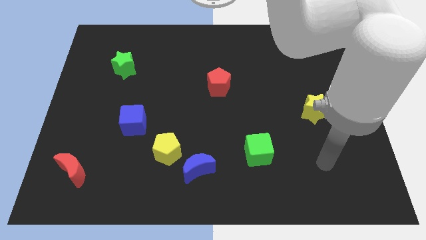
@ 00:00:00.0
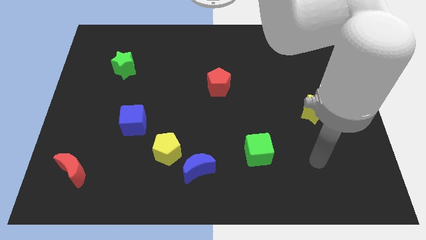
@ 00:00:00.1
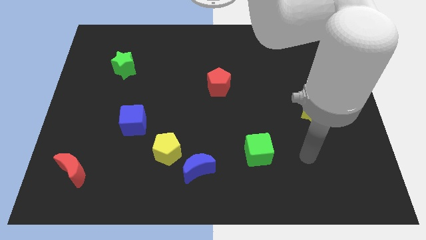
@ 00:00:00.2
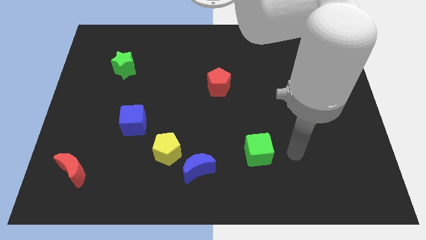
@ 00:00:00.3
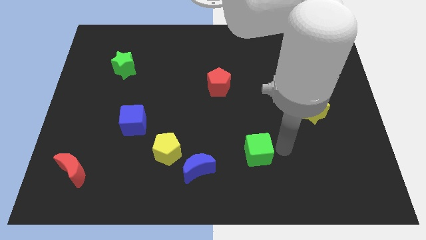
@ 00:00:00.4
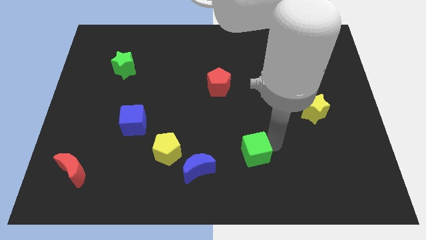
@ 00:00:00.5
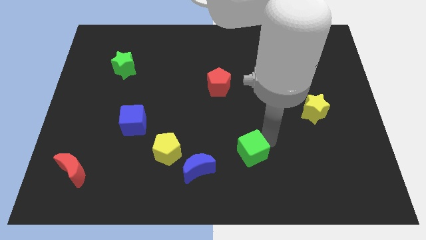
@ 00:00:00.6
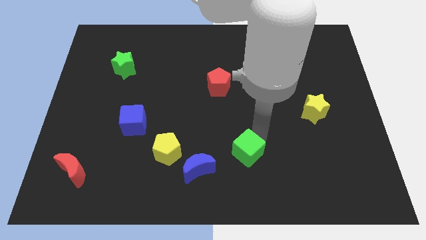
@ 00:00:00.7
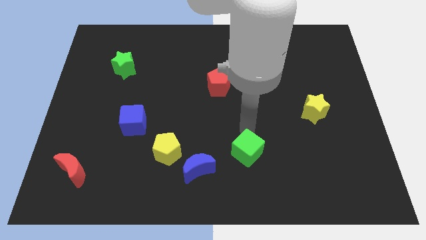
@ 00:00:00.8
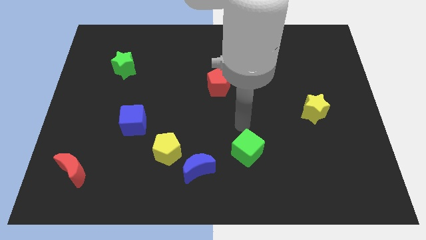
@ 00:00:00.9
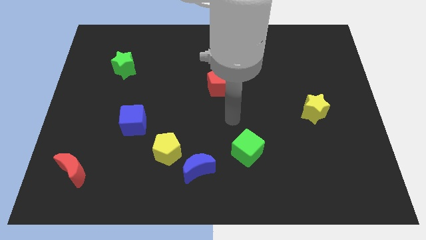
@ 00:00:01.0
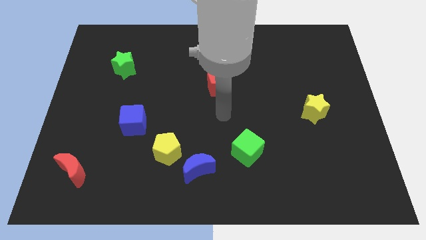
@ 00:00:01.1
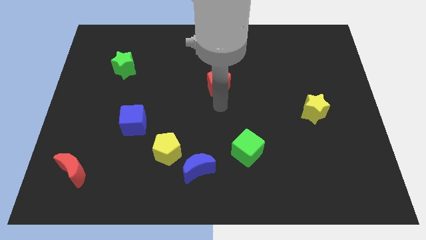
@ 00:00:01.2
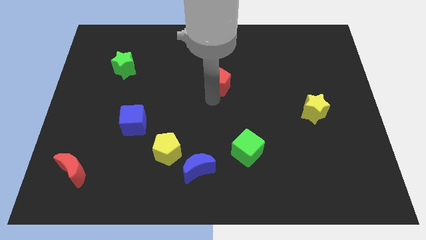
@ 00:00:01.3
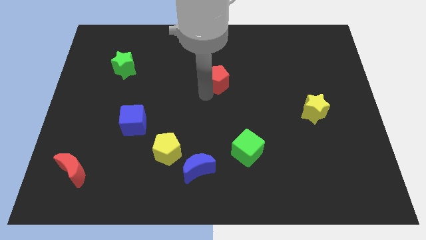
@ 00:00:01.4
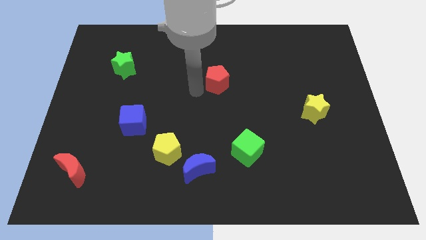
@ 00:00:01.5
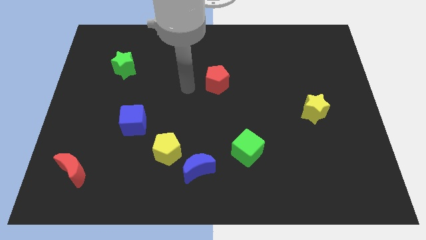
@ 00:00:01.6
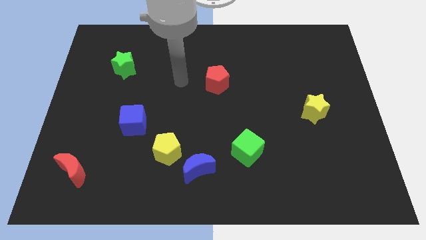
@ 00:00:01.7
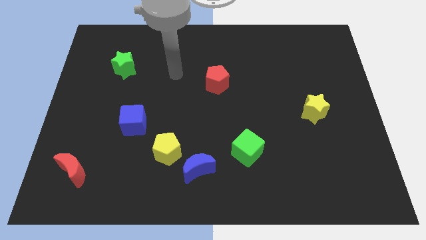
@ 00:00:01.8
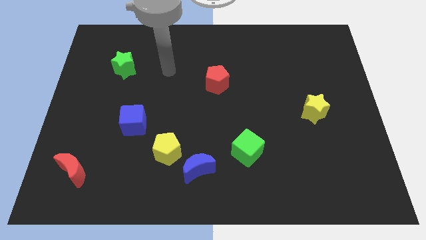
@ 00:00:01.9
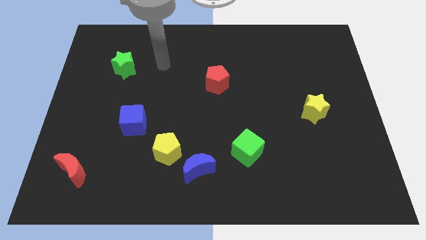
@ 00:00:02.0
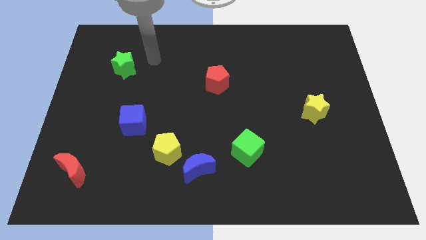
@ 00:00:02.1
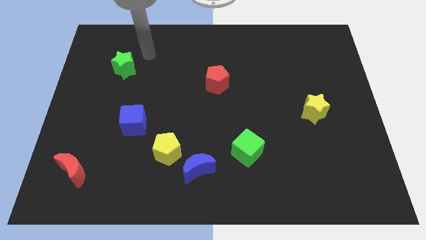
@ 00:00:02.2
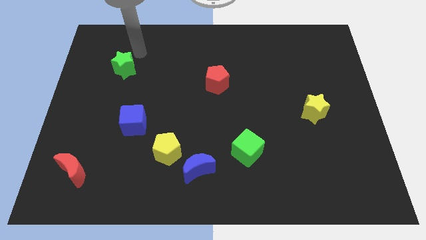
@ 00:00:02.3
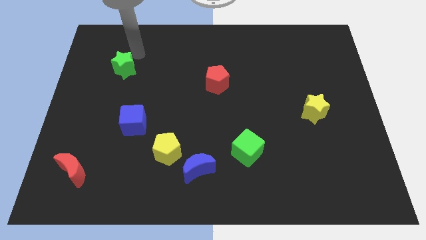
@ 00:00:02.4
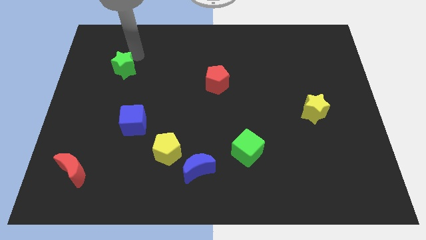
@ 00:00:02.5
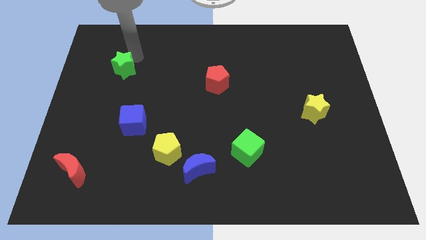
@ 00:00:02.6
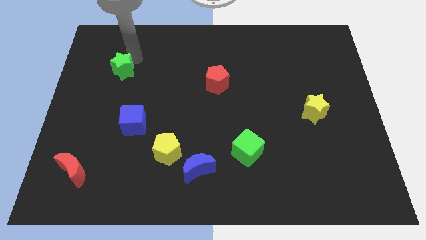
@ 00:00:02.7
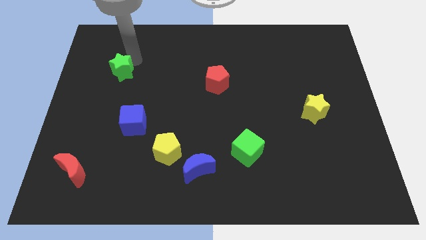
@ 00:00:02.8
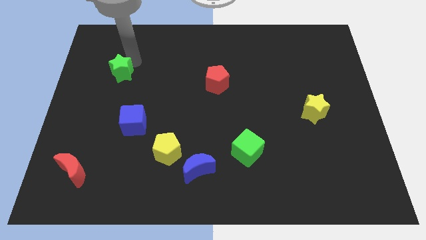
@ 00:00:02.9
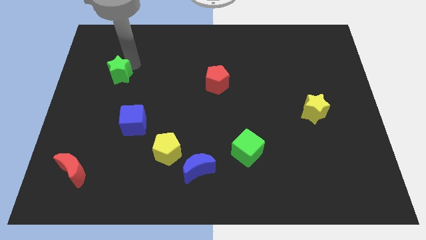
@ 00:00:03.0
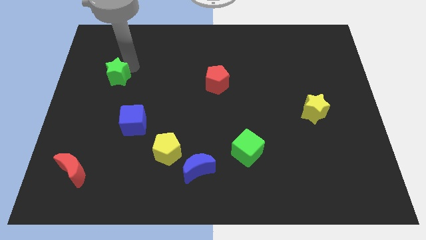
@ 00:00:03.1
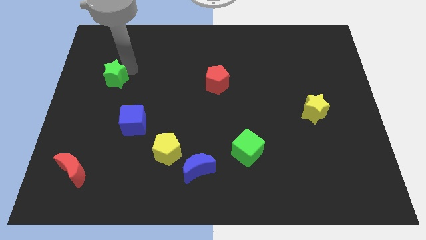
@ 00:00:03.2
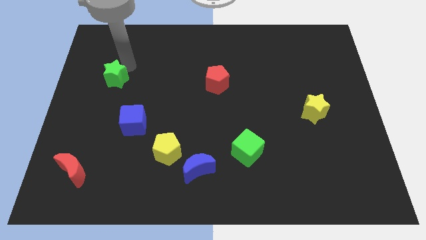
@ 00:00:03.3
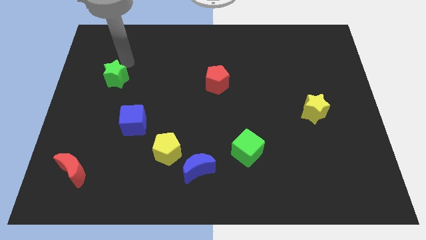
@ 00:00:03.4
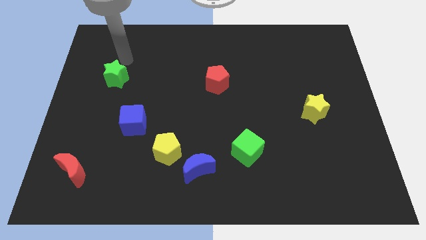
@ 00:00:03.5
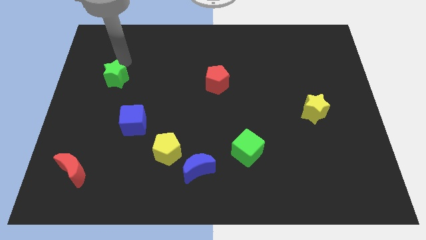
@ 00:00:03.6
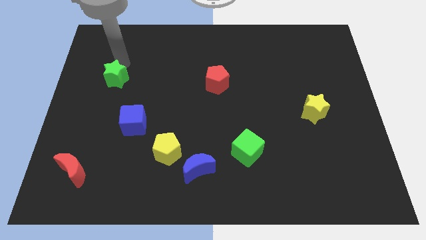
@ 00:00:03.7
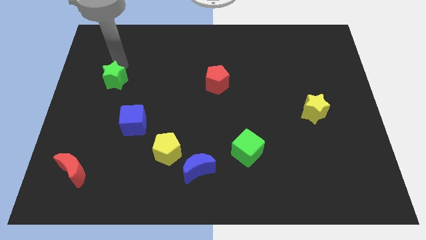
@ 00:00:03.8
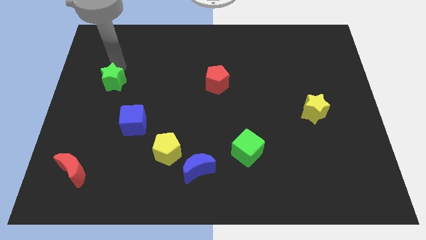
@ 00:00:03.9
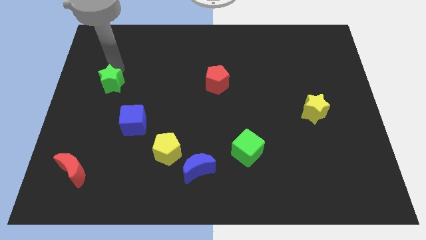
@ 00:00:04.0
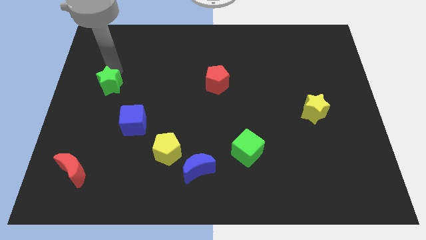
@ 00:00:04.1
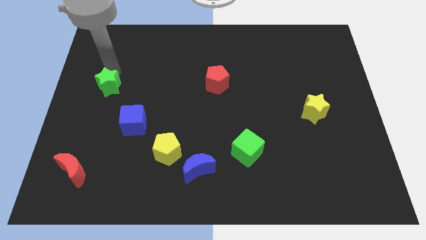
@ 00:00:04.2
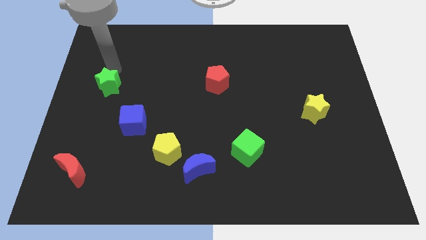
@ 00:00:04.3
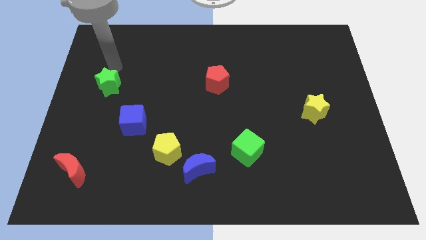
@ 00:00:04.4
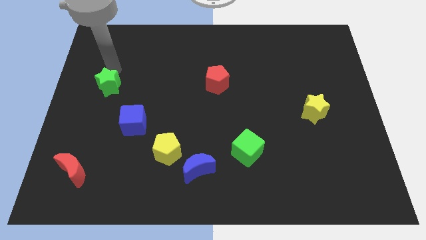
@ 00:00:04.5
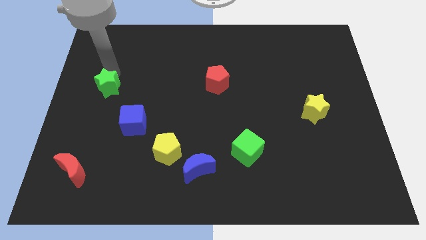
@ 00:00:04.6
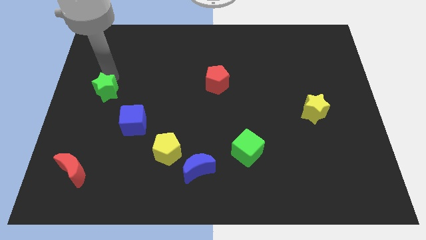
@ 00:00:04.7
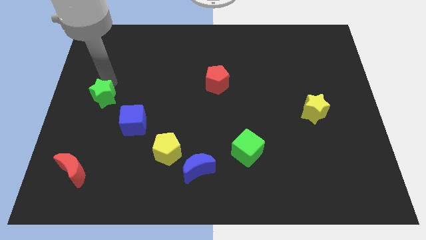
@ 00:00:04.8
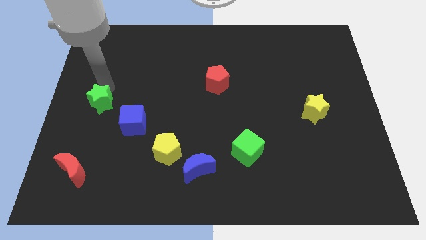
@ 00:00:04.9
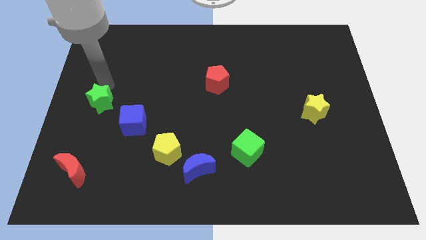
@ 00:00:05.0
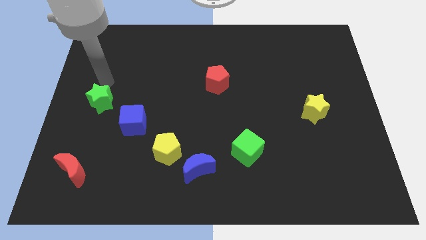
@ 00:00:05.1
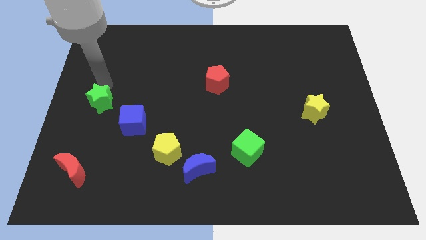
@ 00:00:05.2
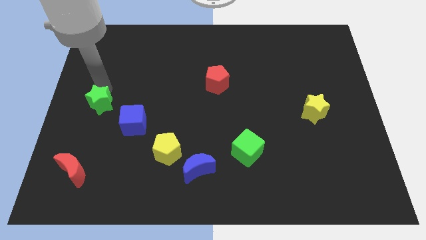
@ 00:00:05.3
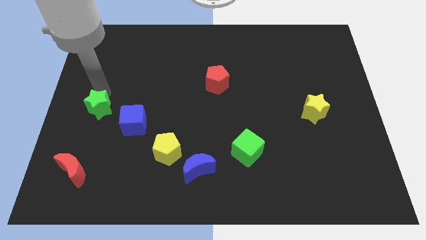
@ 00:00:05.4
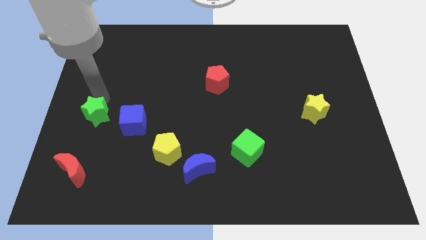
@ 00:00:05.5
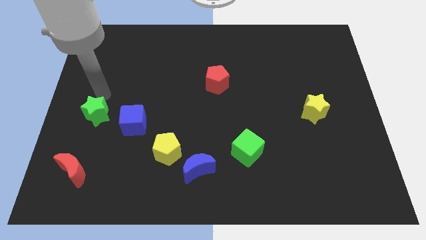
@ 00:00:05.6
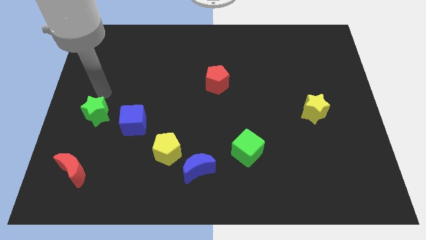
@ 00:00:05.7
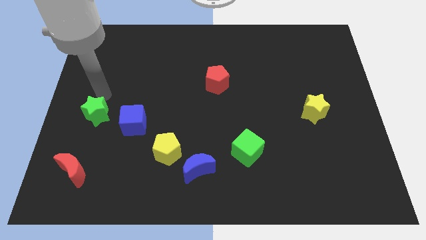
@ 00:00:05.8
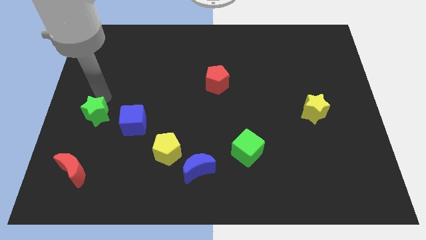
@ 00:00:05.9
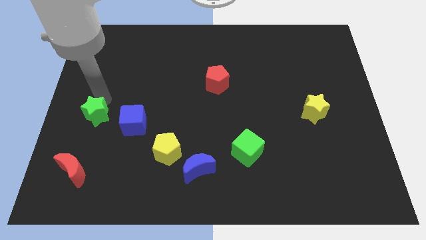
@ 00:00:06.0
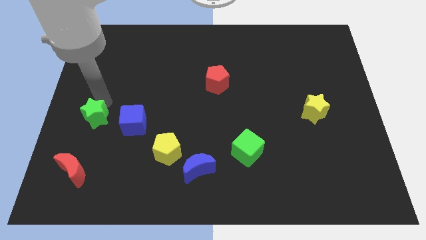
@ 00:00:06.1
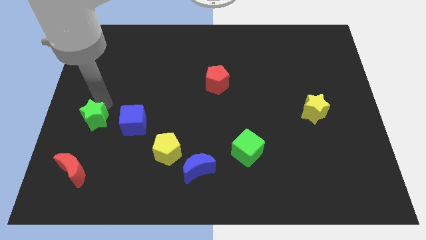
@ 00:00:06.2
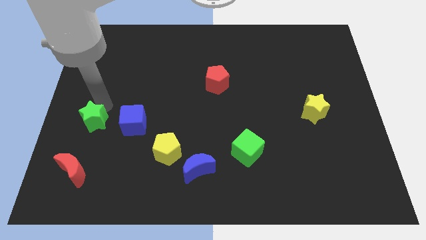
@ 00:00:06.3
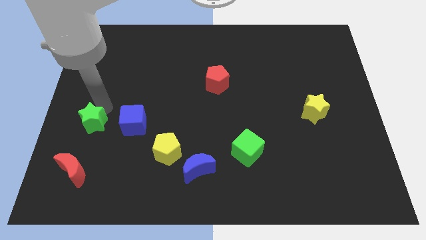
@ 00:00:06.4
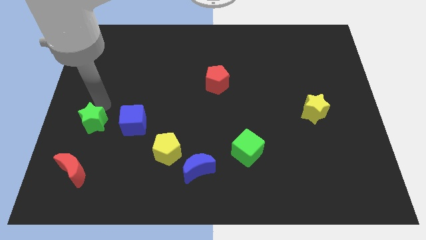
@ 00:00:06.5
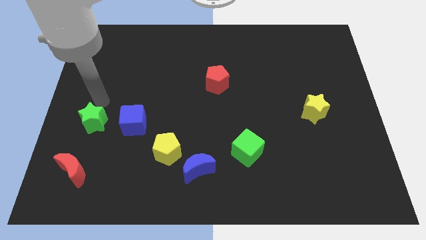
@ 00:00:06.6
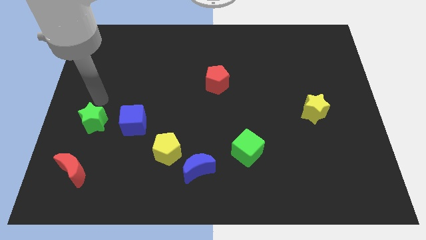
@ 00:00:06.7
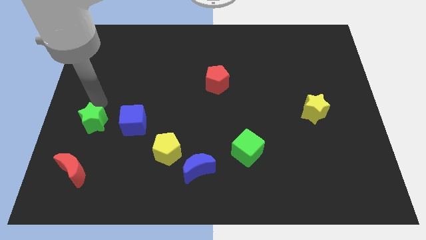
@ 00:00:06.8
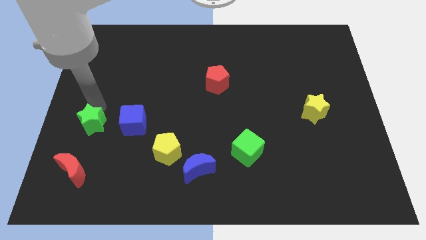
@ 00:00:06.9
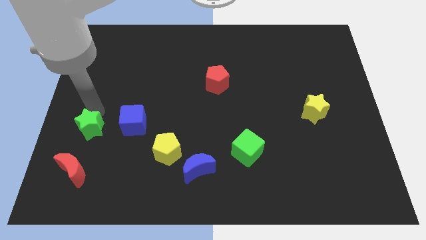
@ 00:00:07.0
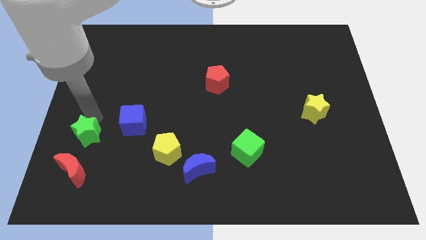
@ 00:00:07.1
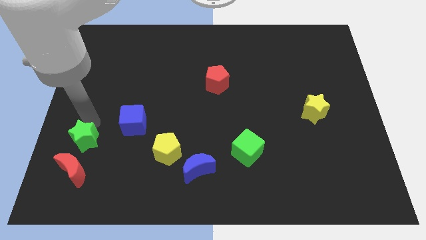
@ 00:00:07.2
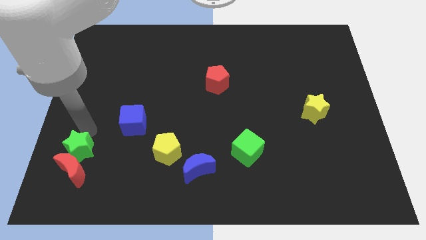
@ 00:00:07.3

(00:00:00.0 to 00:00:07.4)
put the green star close to the red moon

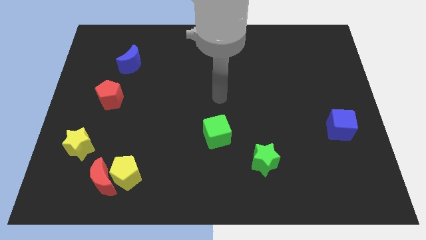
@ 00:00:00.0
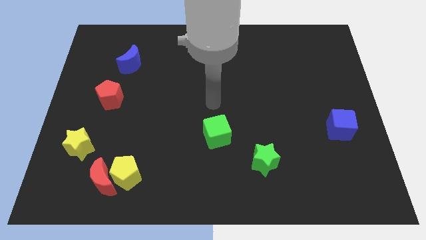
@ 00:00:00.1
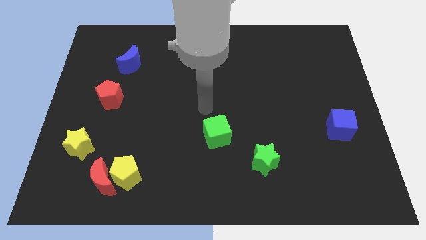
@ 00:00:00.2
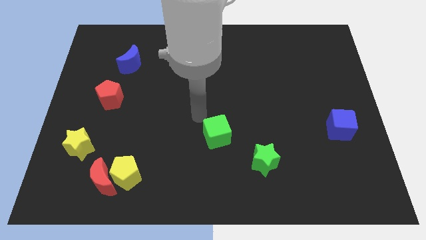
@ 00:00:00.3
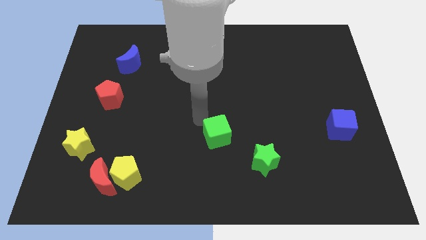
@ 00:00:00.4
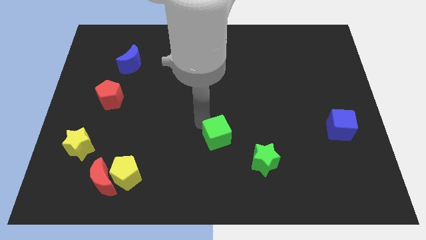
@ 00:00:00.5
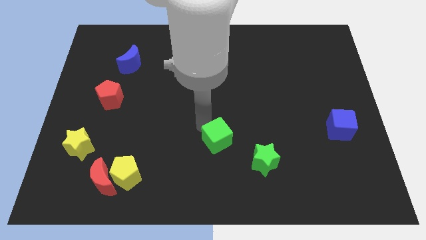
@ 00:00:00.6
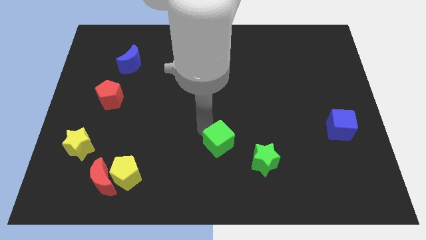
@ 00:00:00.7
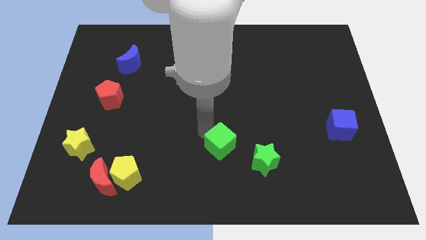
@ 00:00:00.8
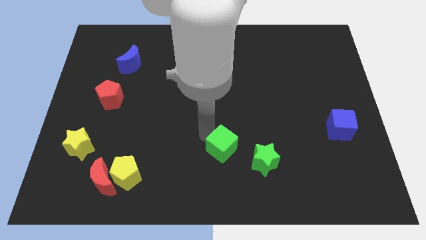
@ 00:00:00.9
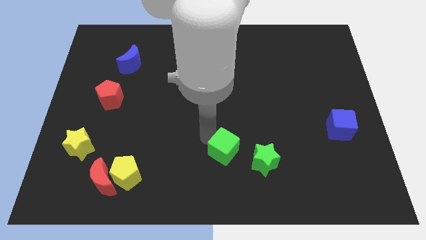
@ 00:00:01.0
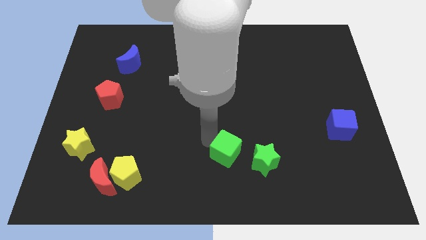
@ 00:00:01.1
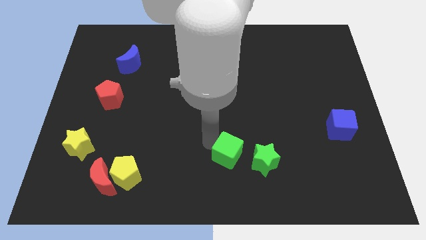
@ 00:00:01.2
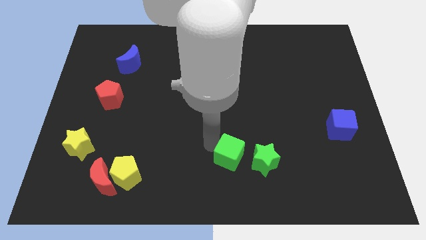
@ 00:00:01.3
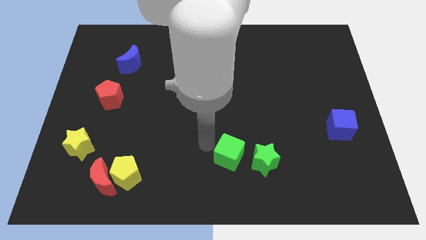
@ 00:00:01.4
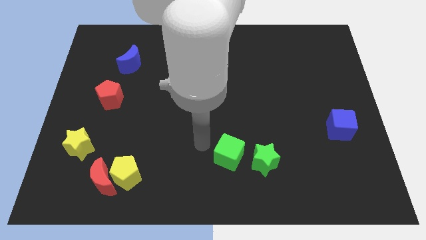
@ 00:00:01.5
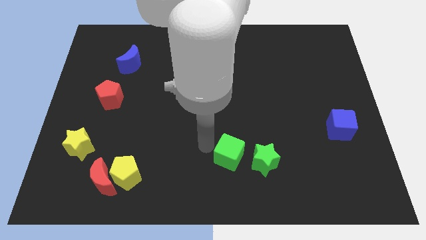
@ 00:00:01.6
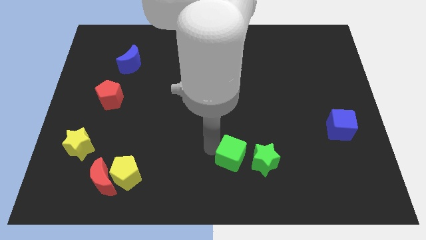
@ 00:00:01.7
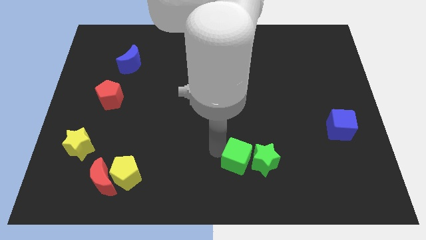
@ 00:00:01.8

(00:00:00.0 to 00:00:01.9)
push the green cube towards the green star
